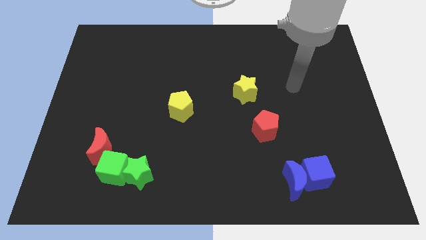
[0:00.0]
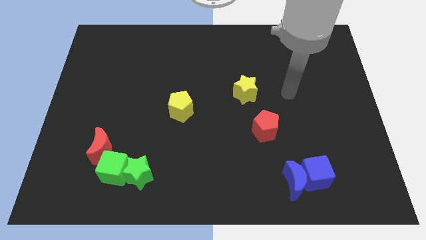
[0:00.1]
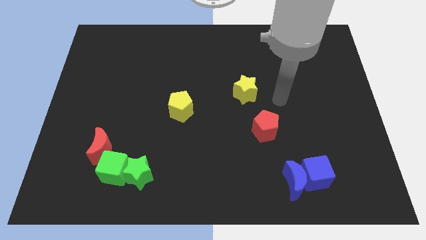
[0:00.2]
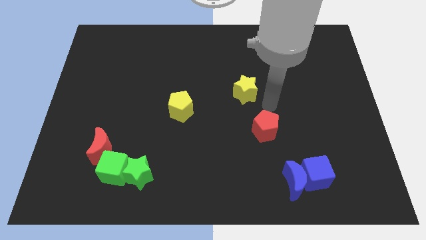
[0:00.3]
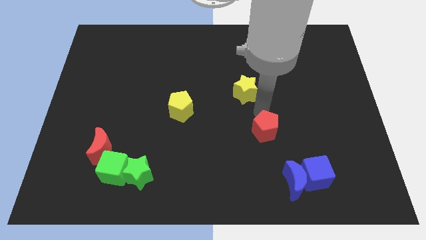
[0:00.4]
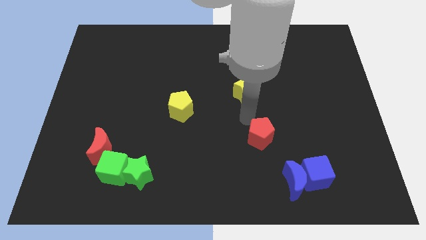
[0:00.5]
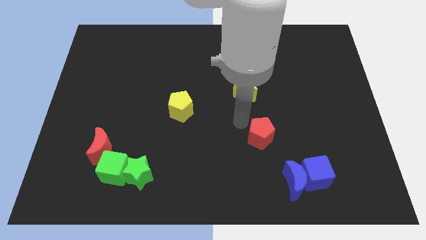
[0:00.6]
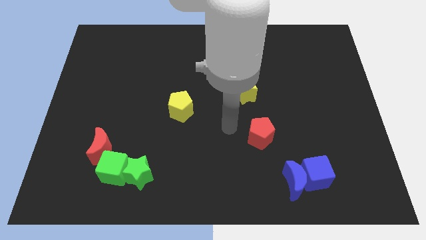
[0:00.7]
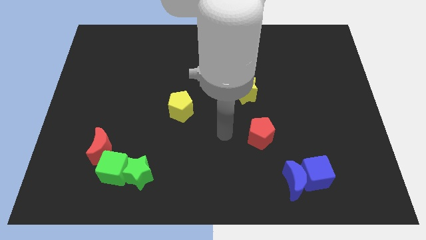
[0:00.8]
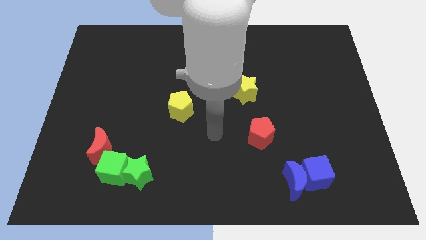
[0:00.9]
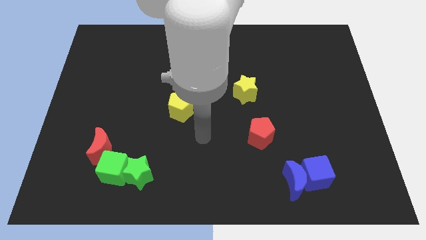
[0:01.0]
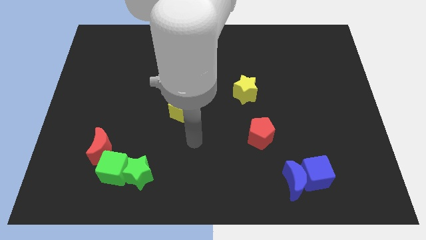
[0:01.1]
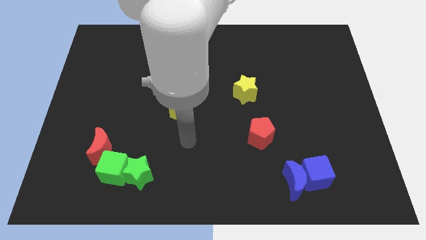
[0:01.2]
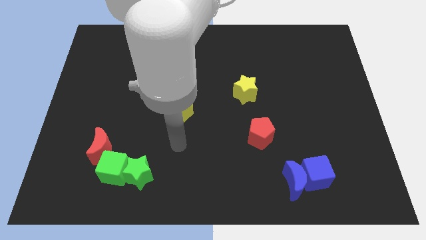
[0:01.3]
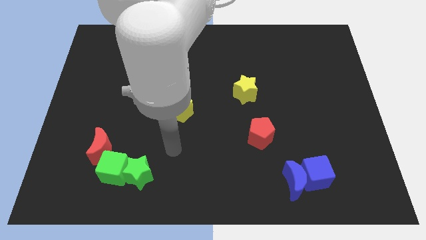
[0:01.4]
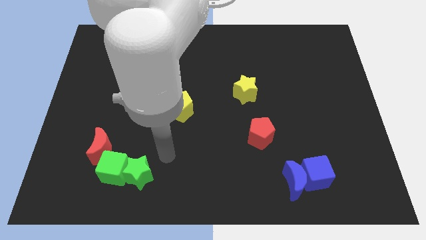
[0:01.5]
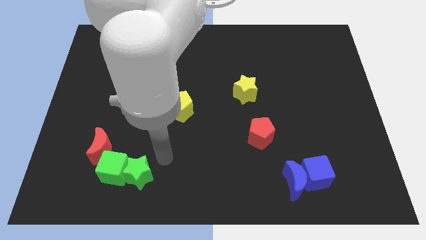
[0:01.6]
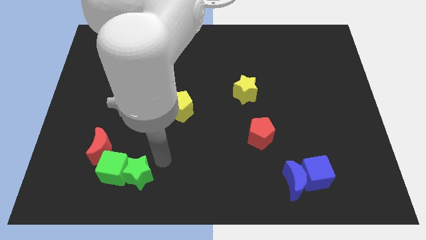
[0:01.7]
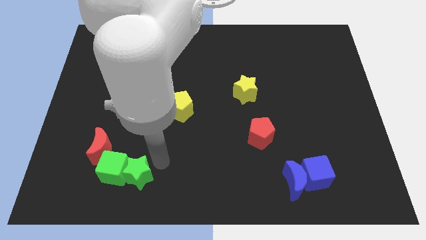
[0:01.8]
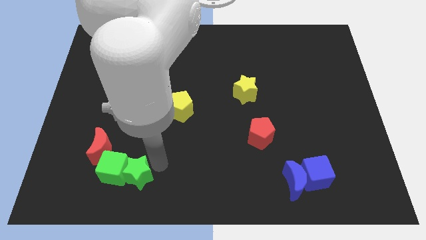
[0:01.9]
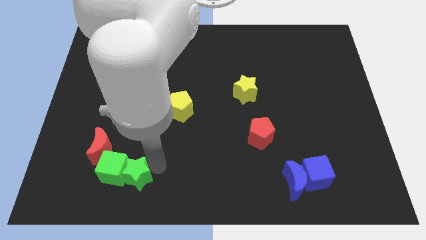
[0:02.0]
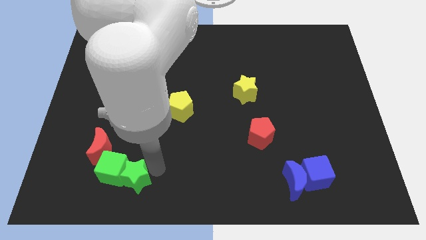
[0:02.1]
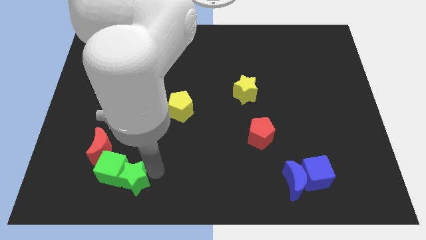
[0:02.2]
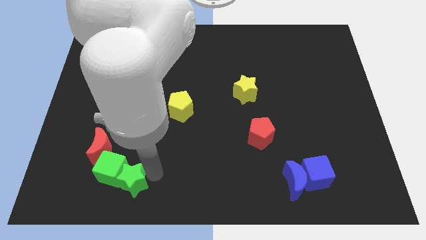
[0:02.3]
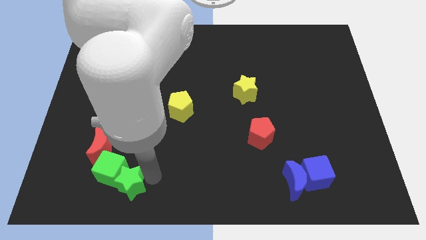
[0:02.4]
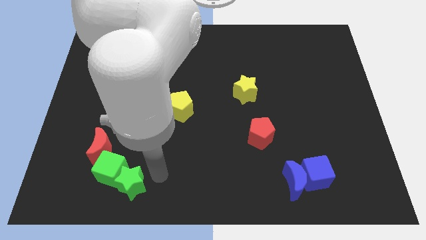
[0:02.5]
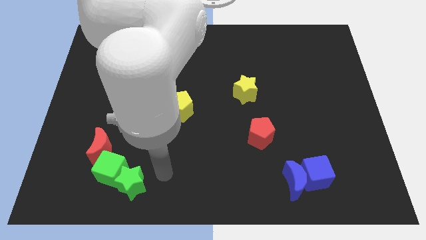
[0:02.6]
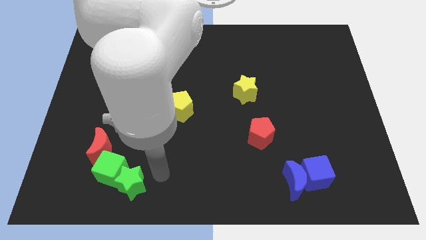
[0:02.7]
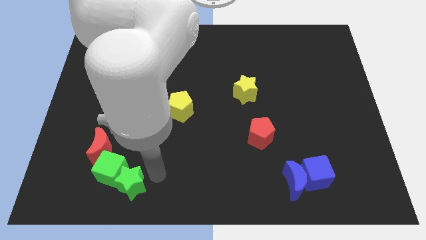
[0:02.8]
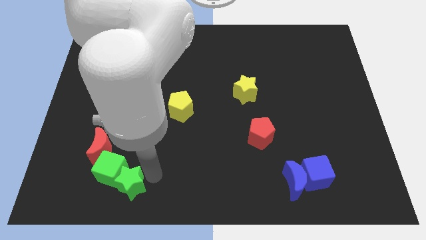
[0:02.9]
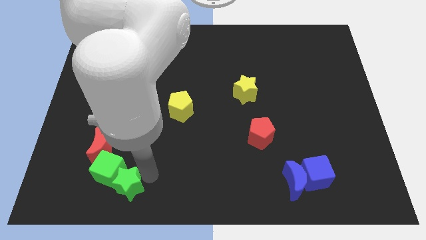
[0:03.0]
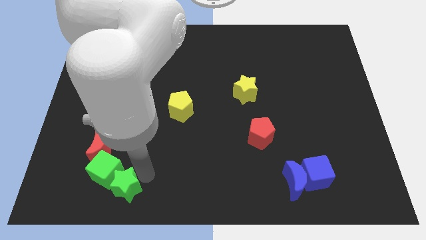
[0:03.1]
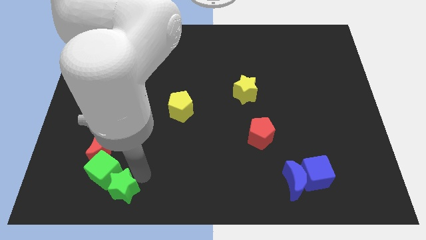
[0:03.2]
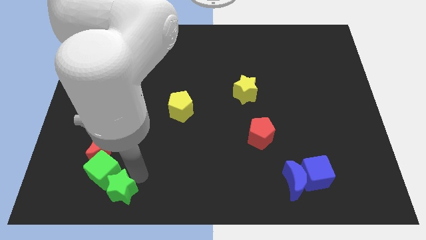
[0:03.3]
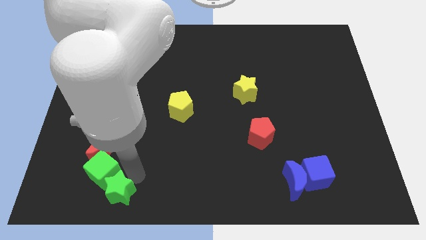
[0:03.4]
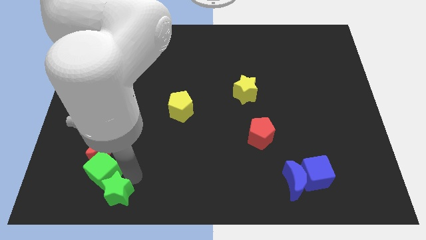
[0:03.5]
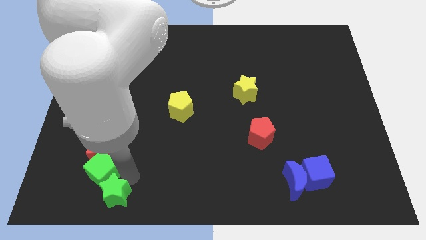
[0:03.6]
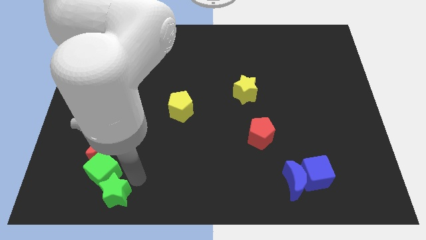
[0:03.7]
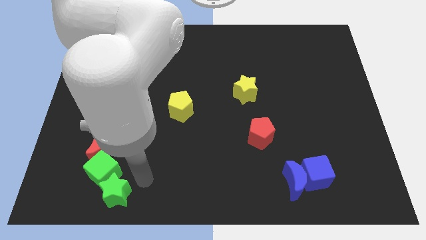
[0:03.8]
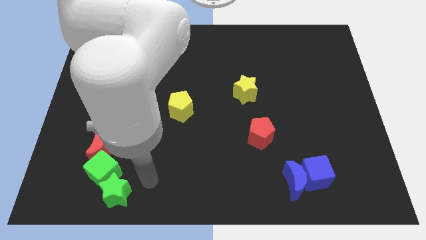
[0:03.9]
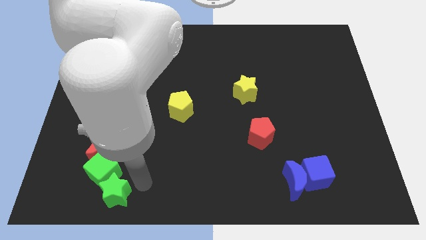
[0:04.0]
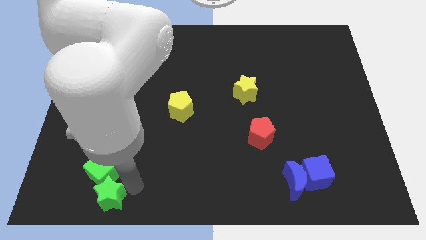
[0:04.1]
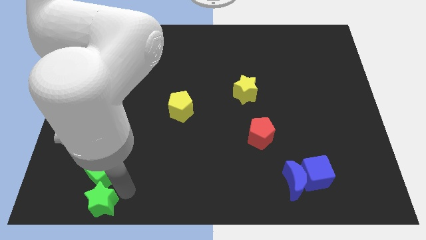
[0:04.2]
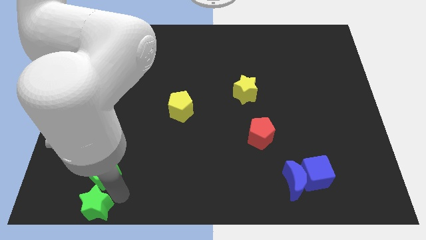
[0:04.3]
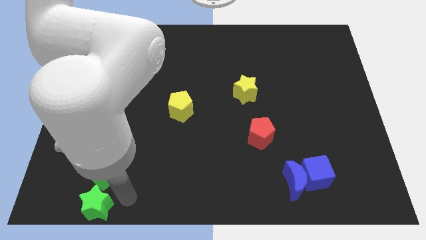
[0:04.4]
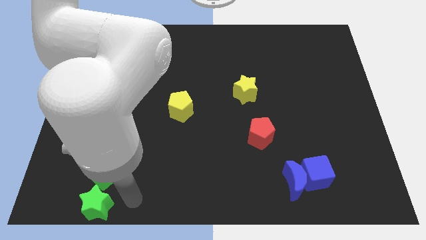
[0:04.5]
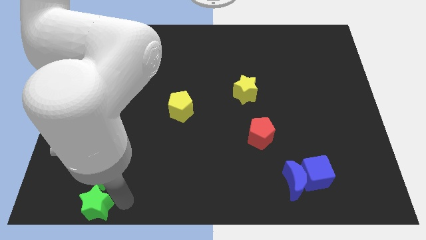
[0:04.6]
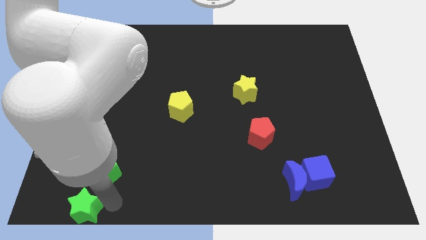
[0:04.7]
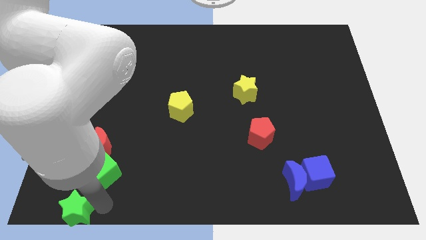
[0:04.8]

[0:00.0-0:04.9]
push the green star to the lower left corner

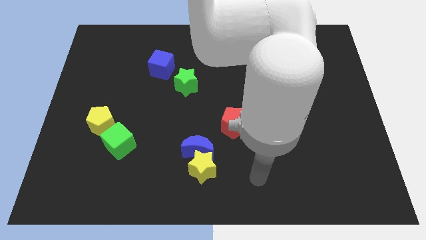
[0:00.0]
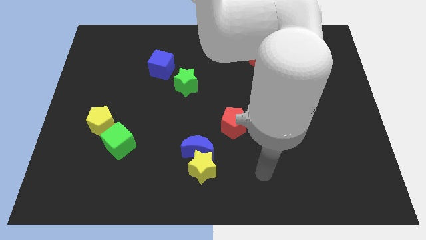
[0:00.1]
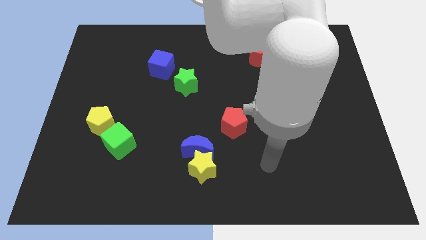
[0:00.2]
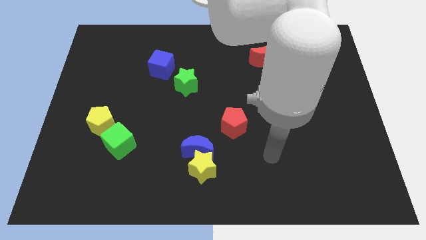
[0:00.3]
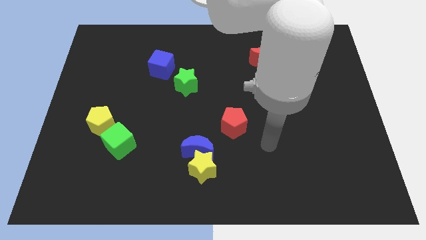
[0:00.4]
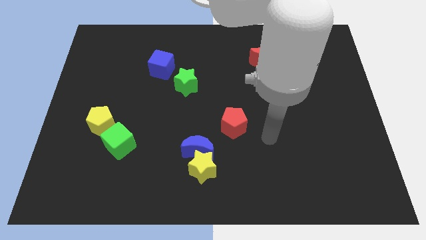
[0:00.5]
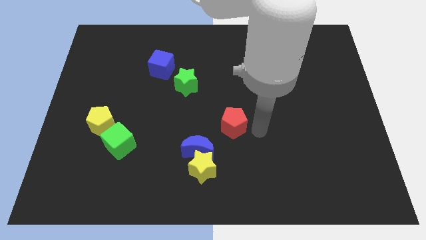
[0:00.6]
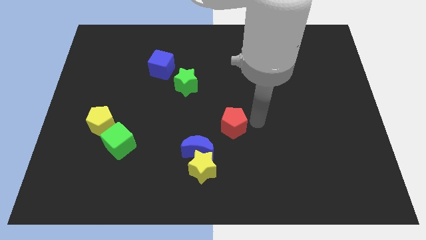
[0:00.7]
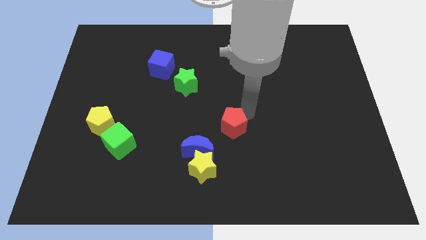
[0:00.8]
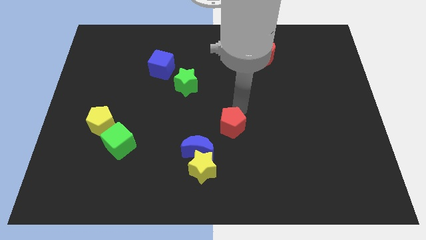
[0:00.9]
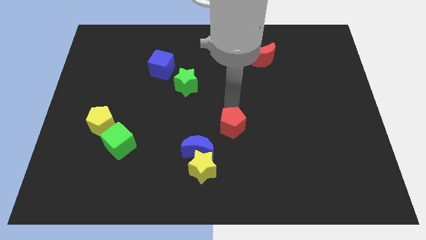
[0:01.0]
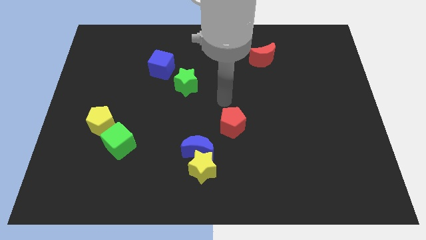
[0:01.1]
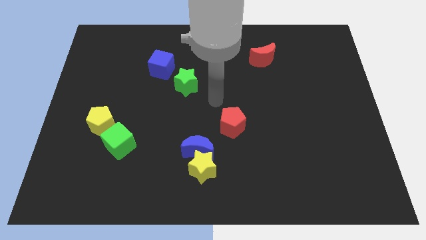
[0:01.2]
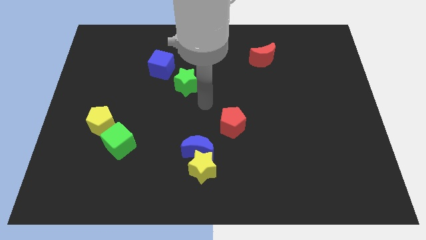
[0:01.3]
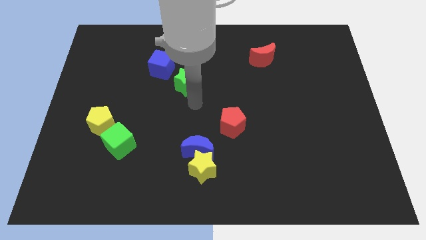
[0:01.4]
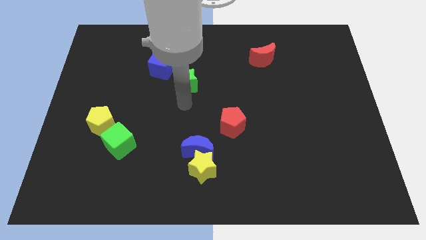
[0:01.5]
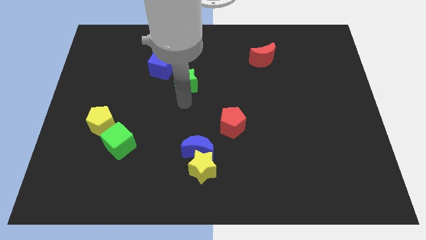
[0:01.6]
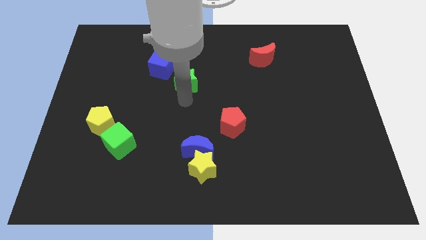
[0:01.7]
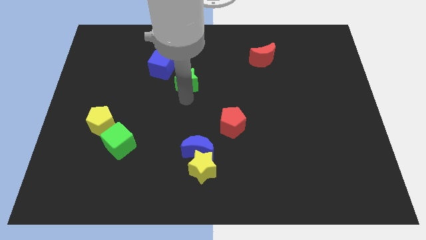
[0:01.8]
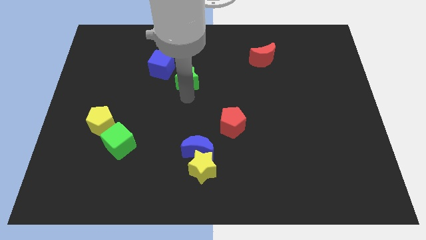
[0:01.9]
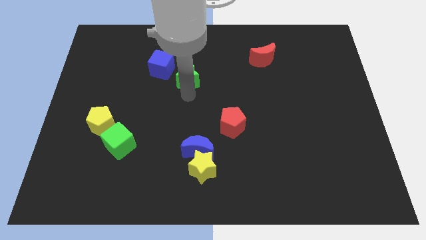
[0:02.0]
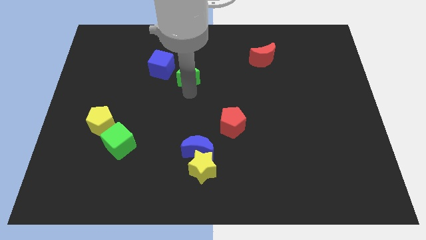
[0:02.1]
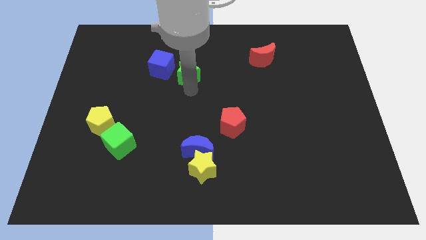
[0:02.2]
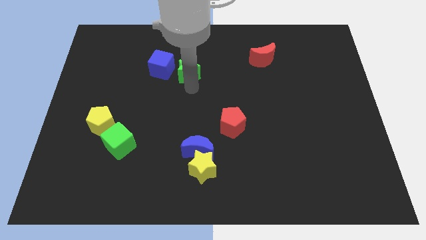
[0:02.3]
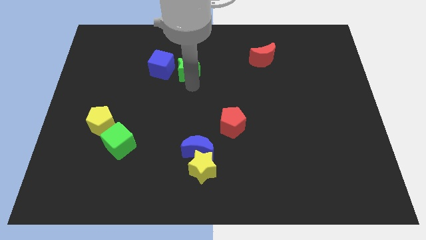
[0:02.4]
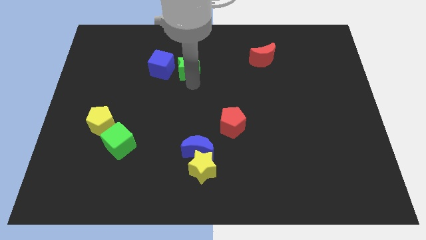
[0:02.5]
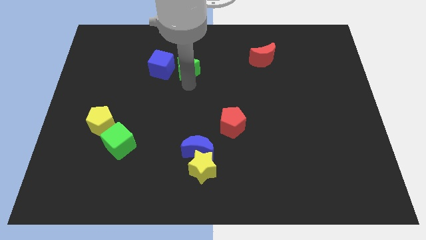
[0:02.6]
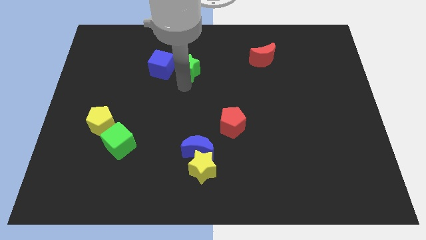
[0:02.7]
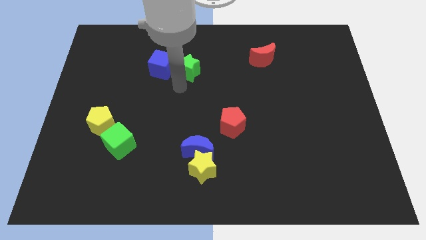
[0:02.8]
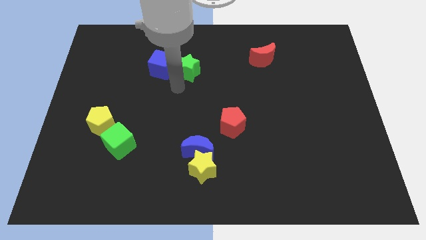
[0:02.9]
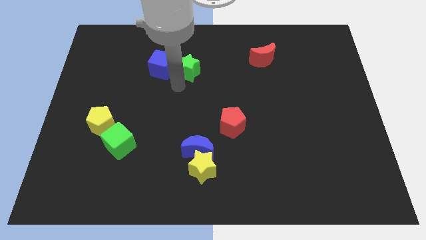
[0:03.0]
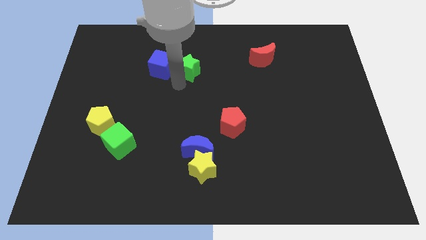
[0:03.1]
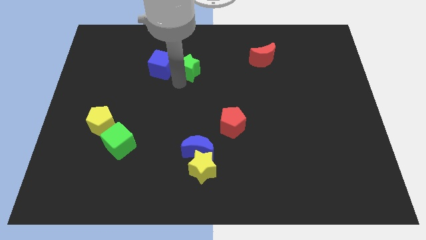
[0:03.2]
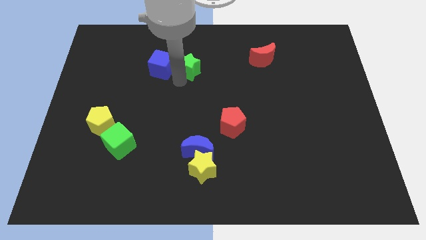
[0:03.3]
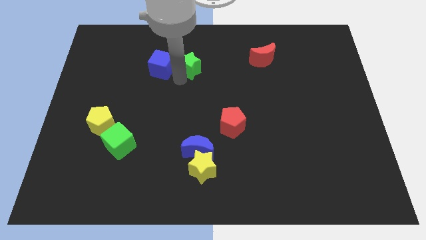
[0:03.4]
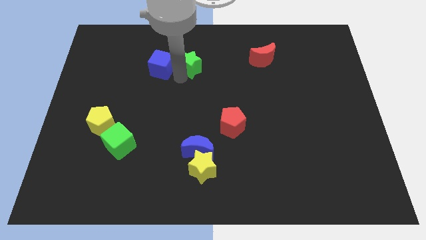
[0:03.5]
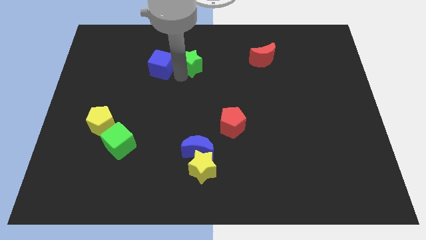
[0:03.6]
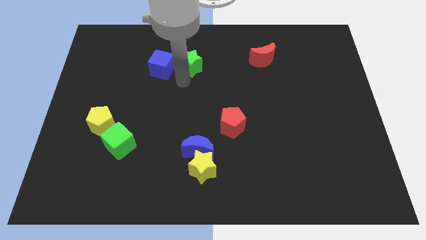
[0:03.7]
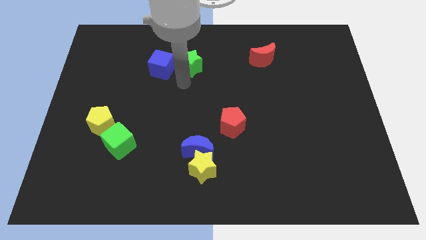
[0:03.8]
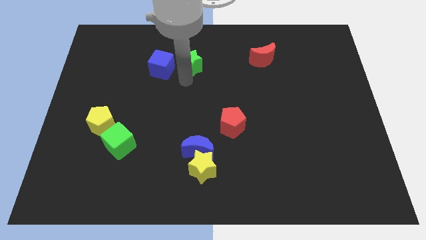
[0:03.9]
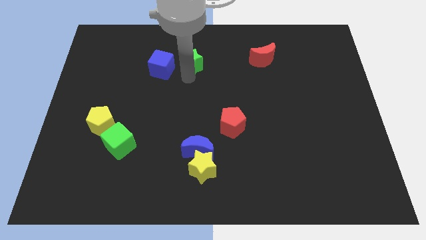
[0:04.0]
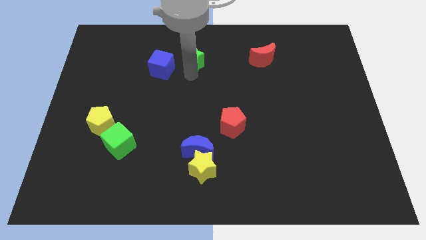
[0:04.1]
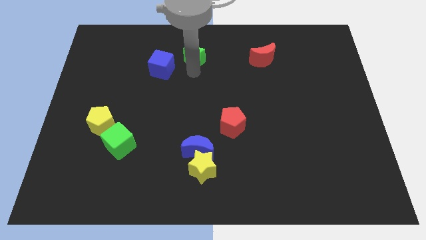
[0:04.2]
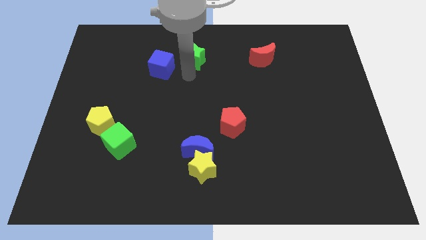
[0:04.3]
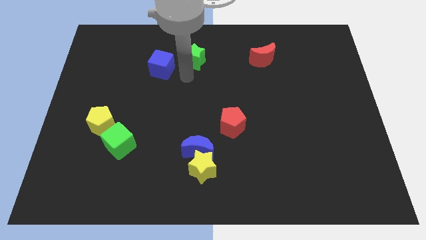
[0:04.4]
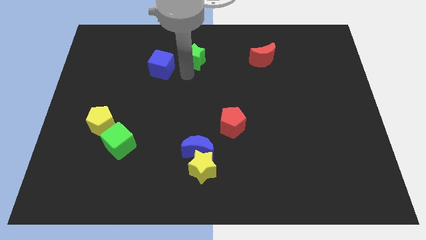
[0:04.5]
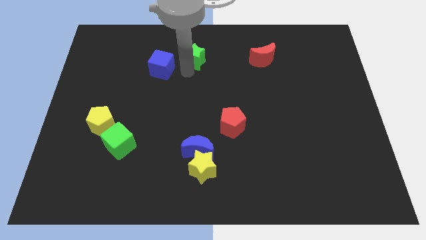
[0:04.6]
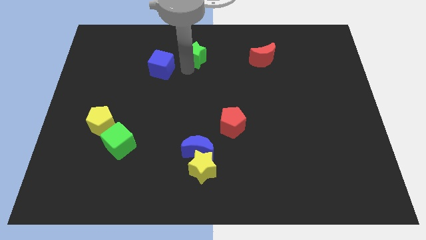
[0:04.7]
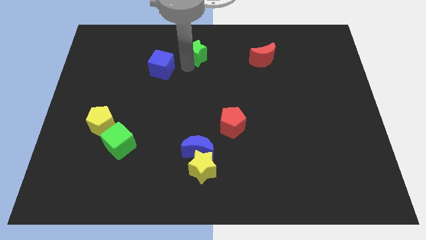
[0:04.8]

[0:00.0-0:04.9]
move the green star to the top
